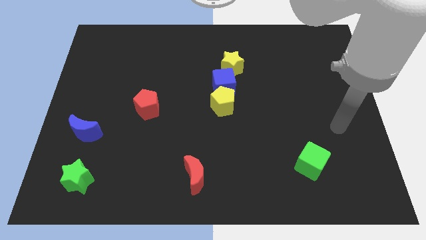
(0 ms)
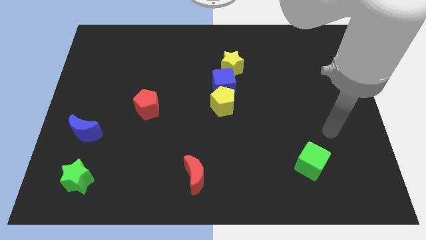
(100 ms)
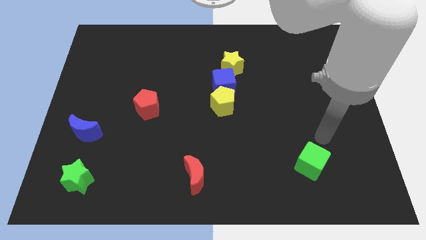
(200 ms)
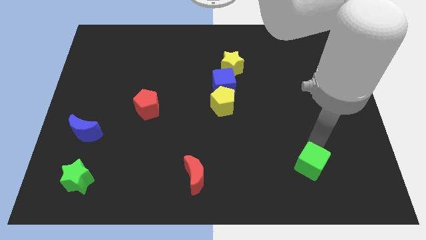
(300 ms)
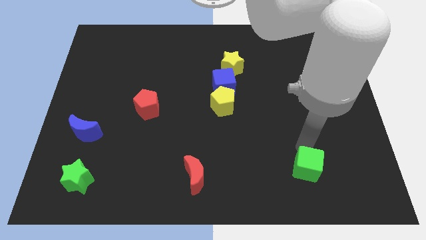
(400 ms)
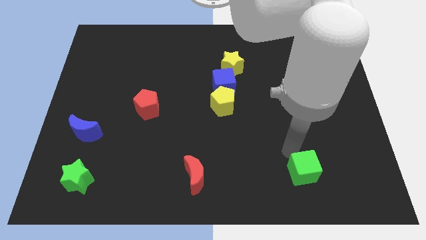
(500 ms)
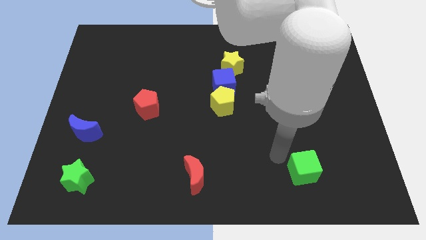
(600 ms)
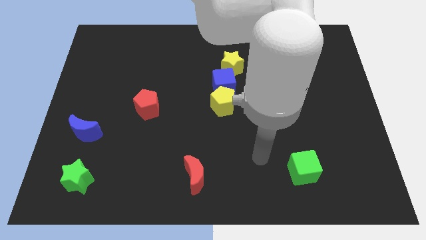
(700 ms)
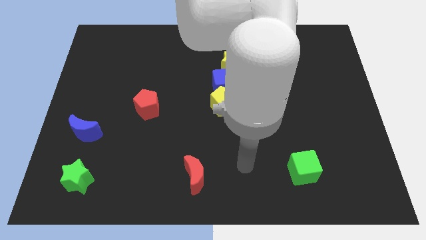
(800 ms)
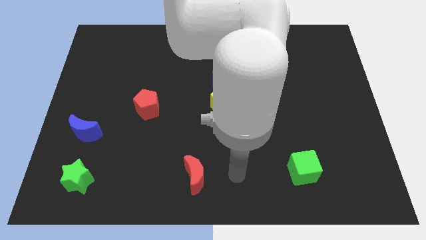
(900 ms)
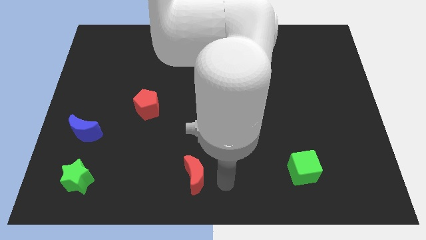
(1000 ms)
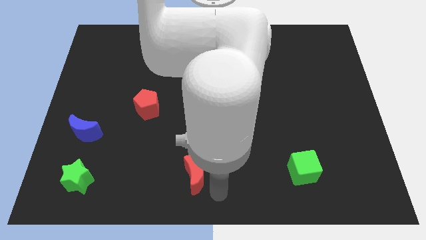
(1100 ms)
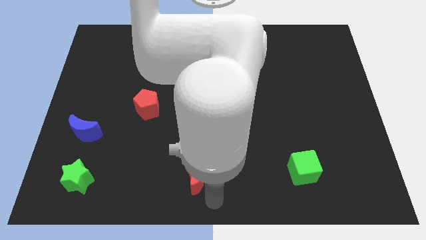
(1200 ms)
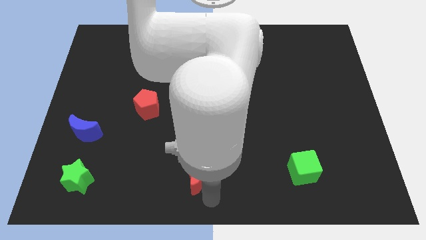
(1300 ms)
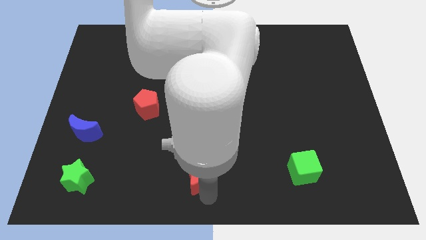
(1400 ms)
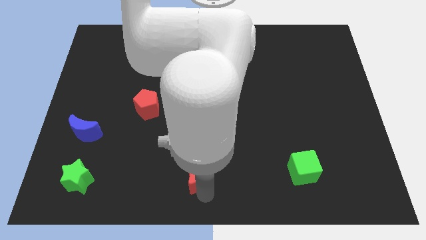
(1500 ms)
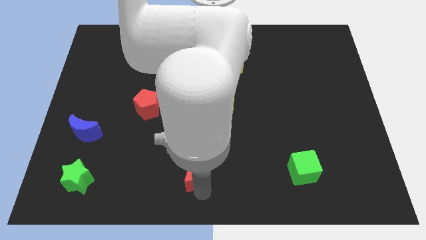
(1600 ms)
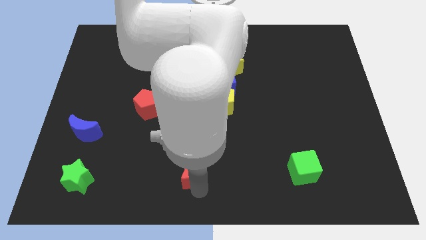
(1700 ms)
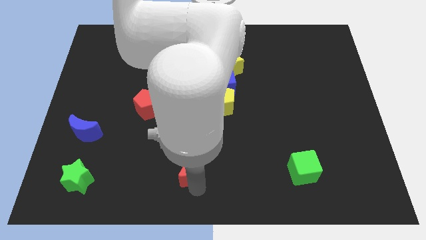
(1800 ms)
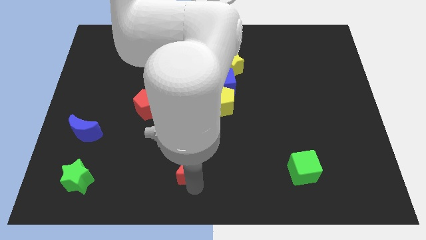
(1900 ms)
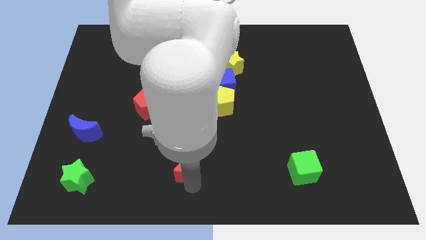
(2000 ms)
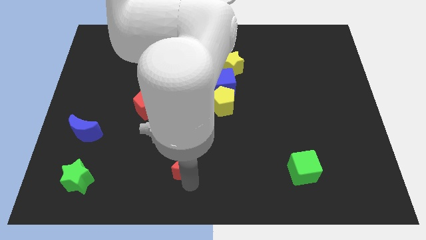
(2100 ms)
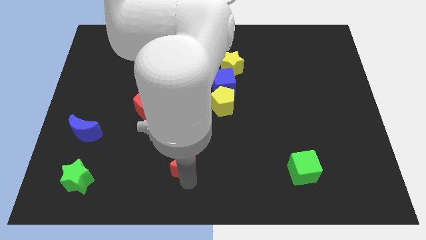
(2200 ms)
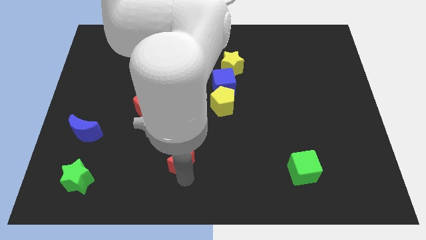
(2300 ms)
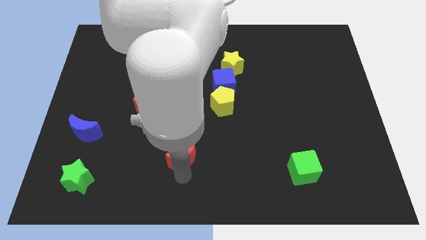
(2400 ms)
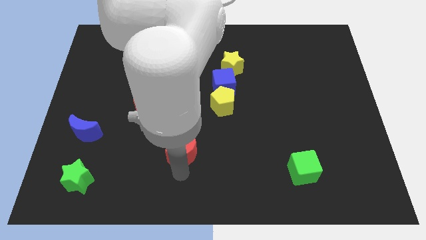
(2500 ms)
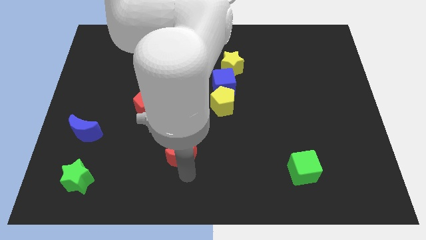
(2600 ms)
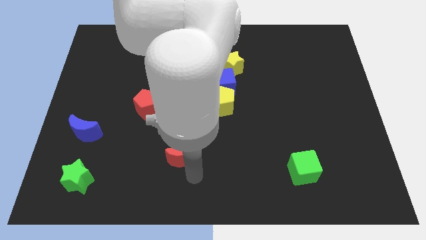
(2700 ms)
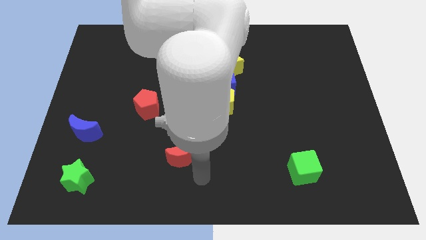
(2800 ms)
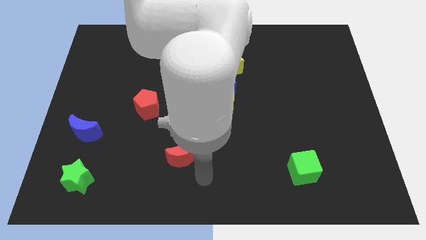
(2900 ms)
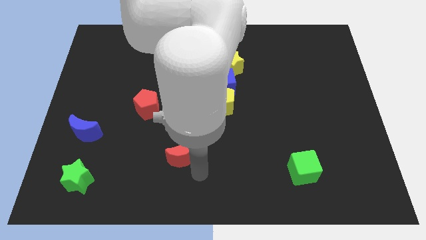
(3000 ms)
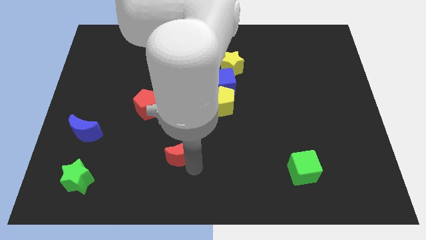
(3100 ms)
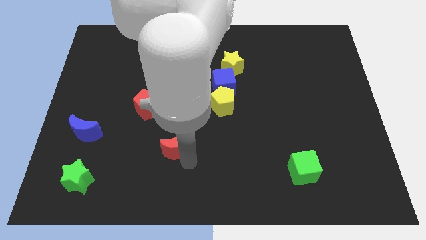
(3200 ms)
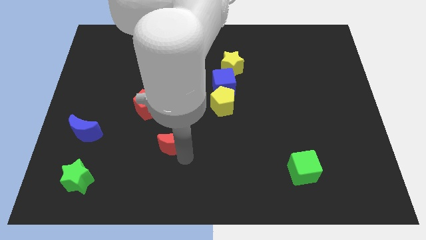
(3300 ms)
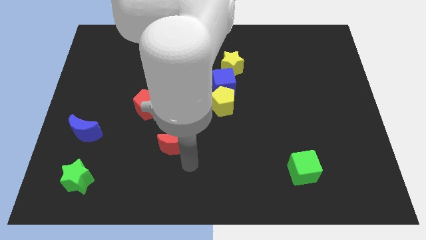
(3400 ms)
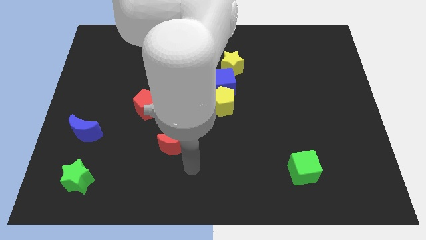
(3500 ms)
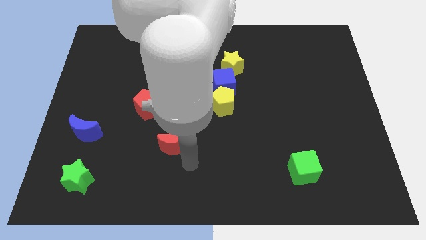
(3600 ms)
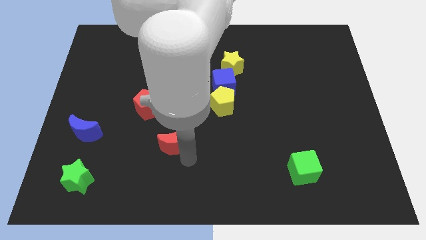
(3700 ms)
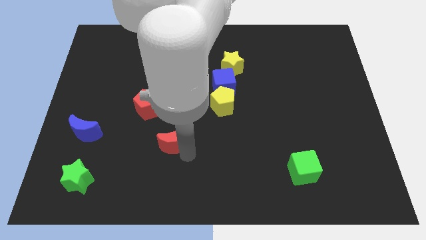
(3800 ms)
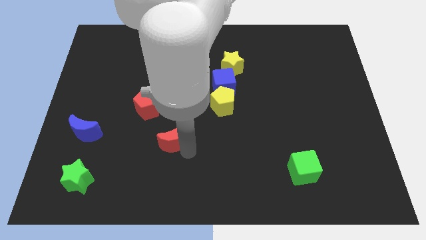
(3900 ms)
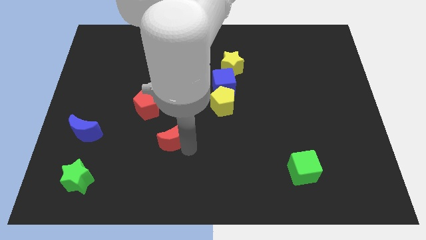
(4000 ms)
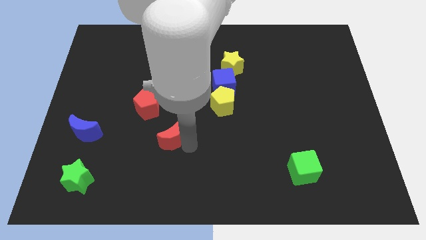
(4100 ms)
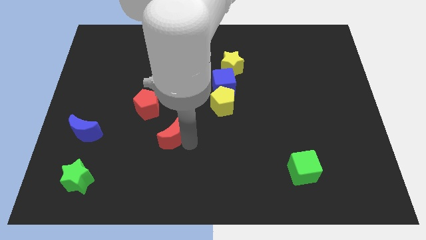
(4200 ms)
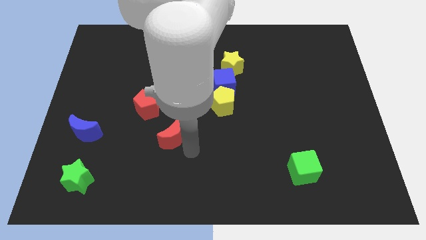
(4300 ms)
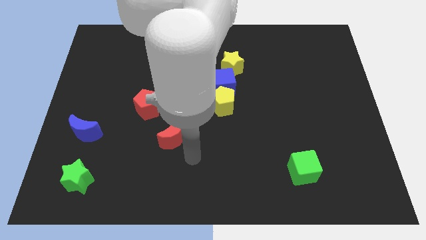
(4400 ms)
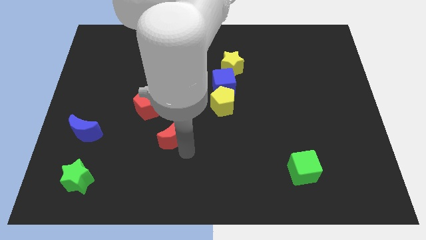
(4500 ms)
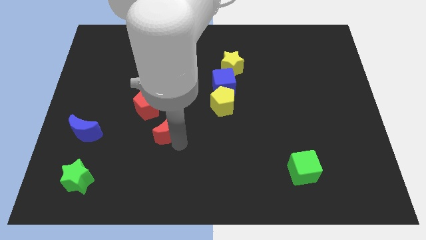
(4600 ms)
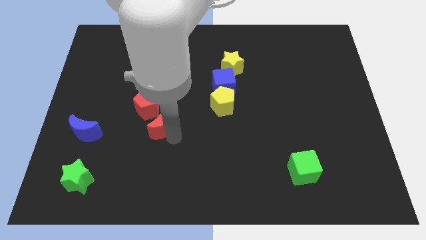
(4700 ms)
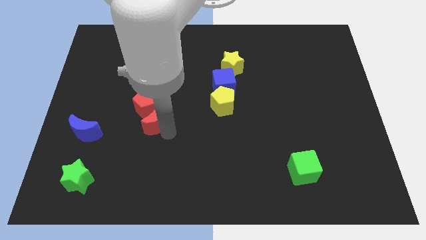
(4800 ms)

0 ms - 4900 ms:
slide the red moon next to the red pentagon

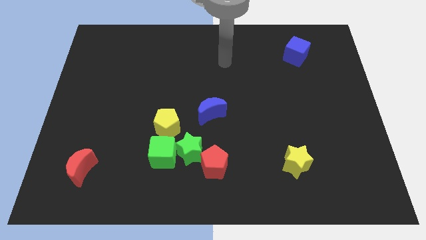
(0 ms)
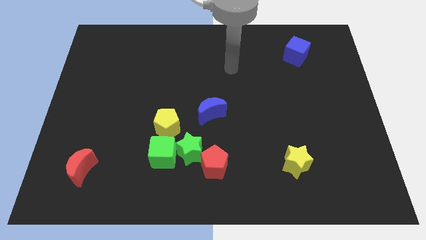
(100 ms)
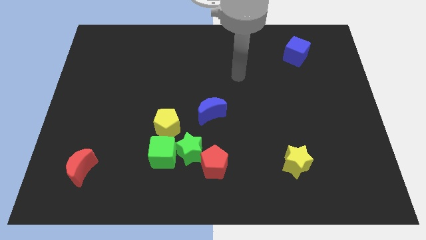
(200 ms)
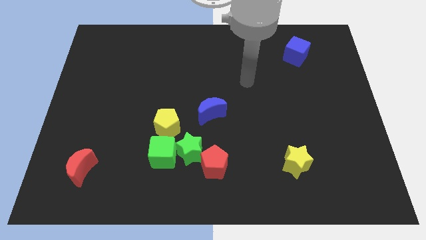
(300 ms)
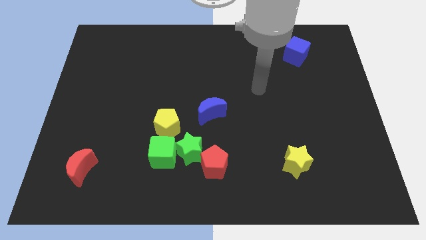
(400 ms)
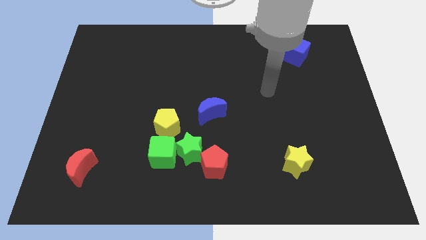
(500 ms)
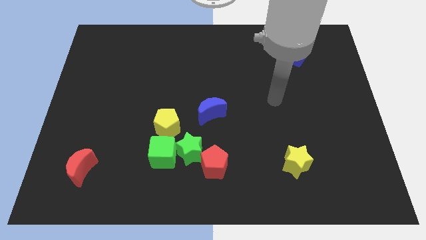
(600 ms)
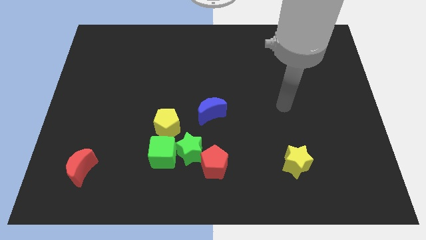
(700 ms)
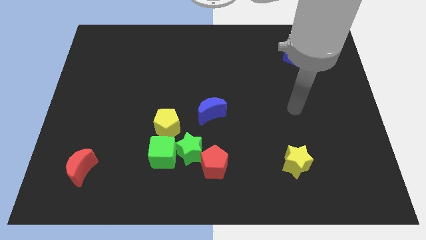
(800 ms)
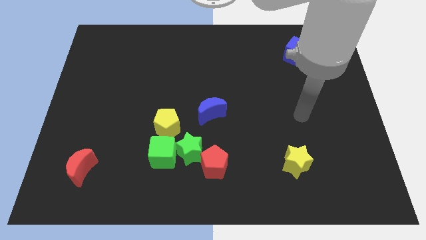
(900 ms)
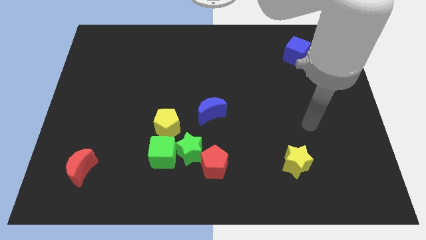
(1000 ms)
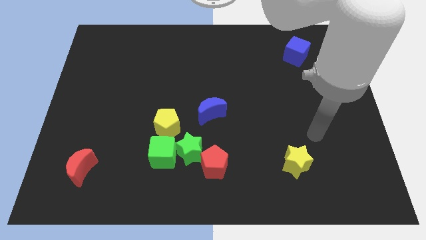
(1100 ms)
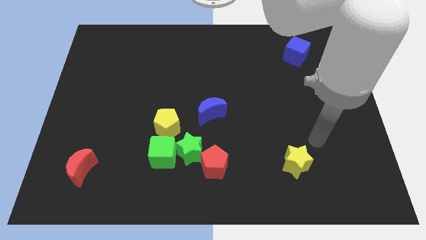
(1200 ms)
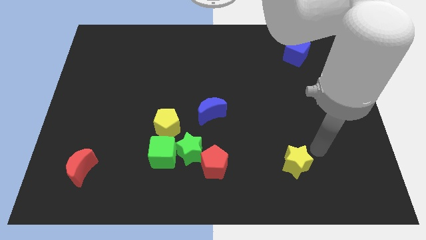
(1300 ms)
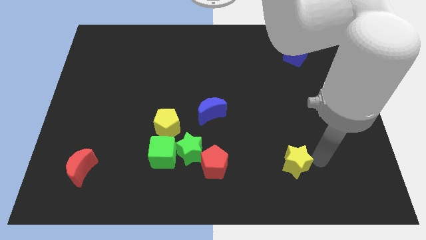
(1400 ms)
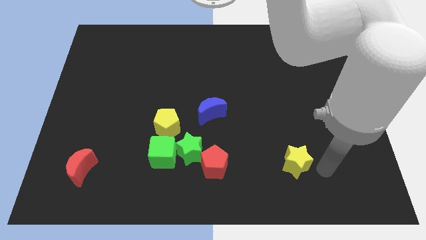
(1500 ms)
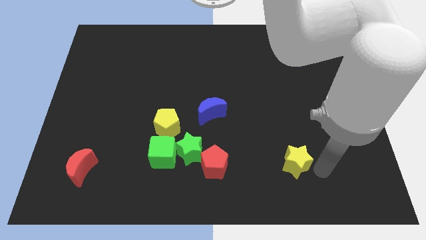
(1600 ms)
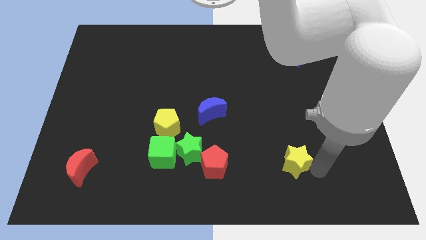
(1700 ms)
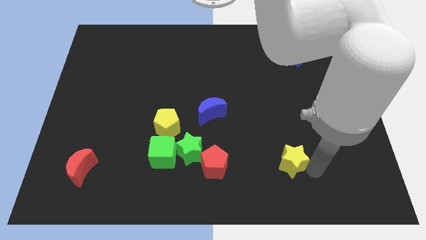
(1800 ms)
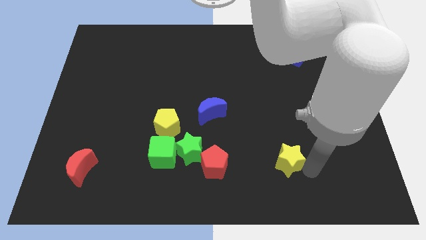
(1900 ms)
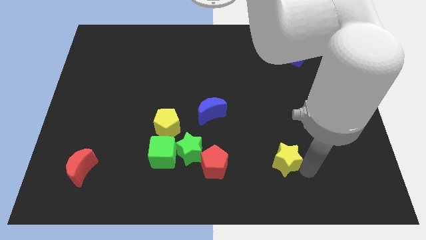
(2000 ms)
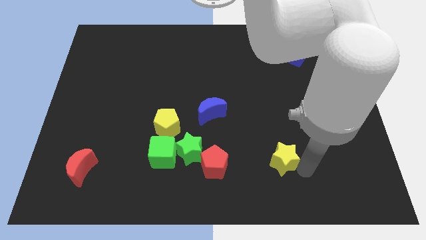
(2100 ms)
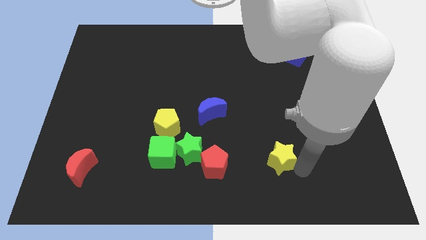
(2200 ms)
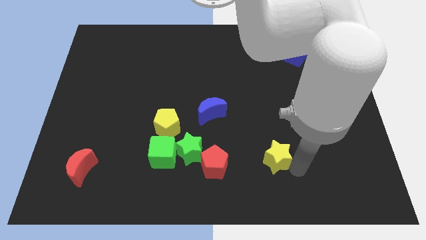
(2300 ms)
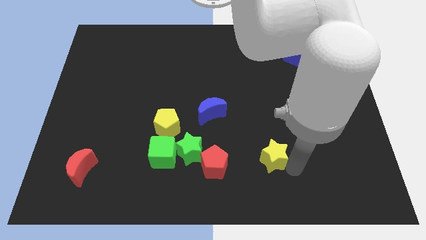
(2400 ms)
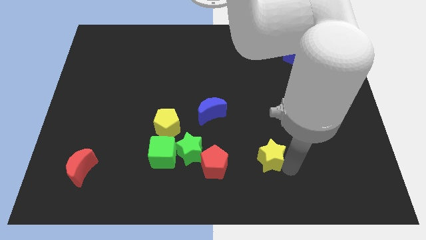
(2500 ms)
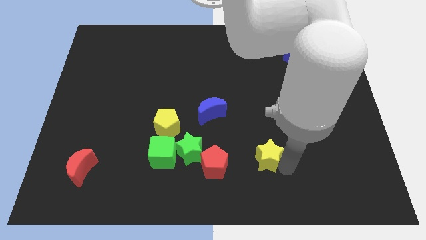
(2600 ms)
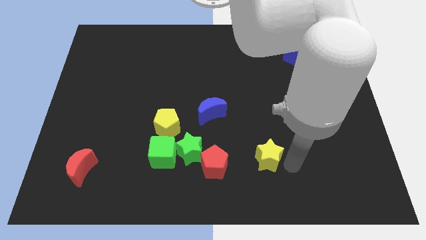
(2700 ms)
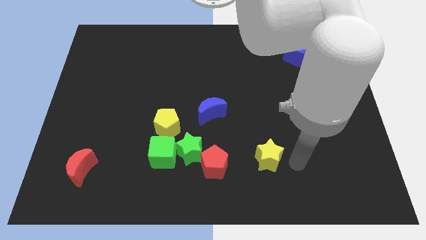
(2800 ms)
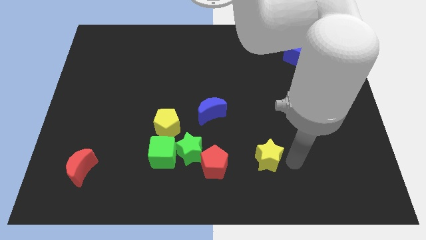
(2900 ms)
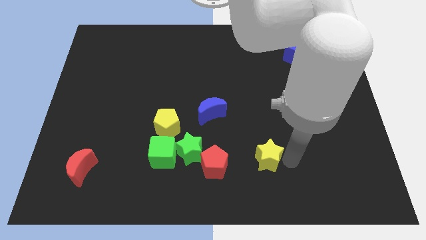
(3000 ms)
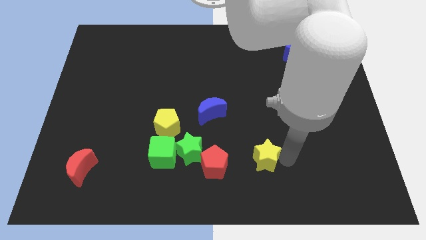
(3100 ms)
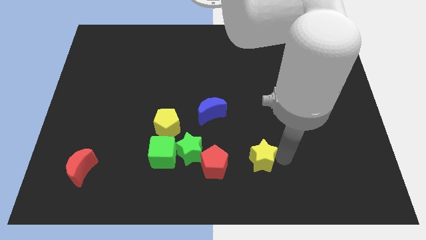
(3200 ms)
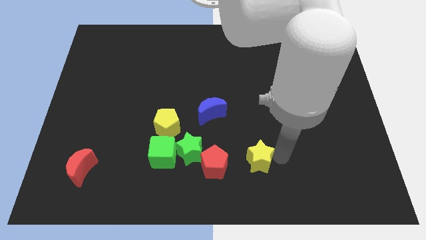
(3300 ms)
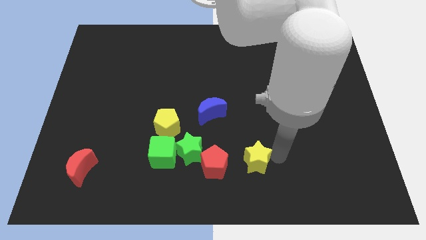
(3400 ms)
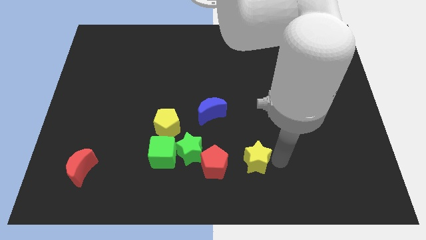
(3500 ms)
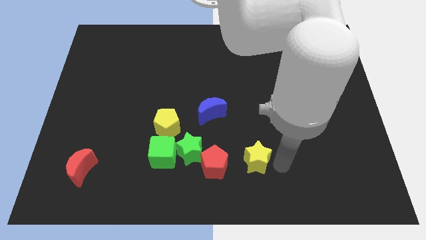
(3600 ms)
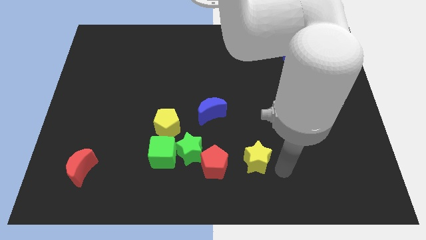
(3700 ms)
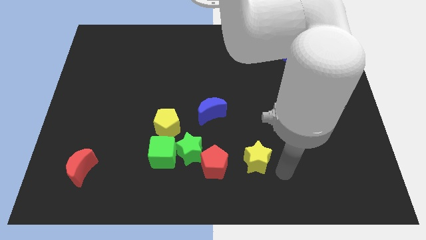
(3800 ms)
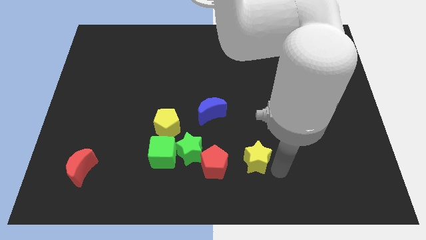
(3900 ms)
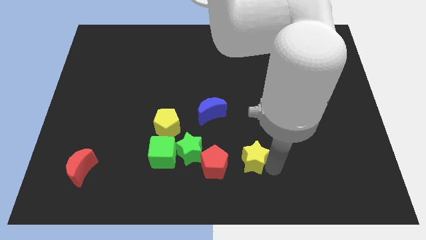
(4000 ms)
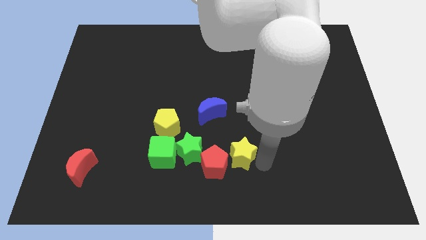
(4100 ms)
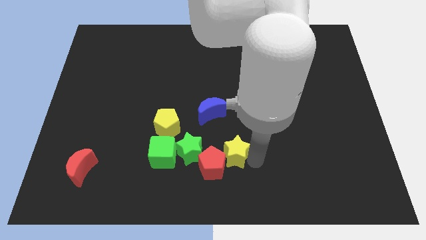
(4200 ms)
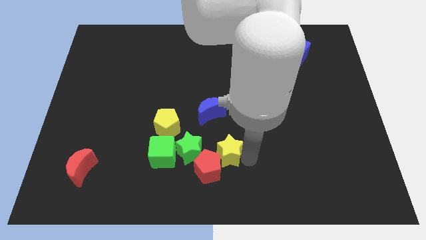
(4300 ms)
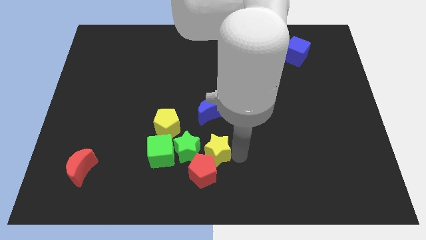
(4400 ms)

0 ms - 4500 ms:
move the yellow star towards the green star
